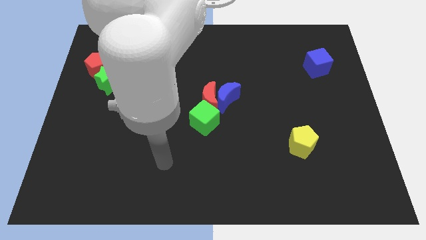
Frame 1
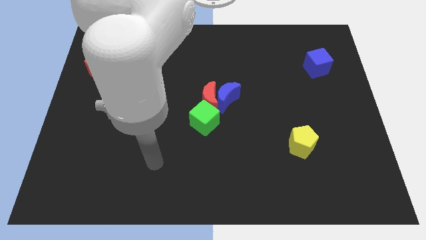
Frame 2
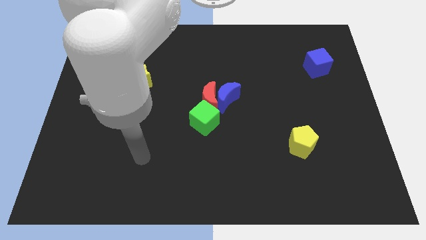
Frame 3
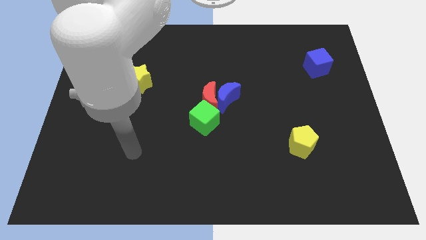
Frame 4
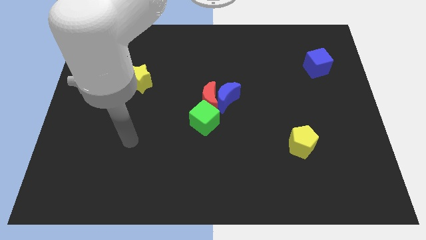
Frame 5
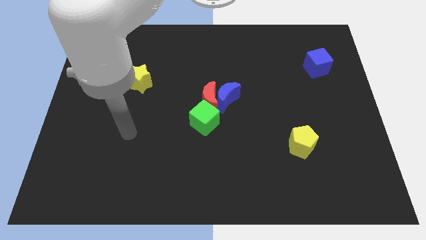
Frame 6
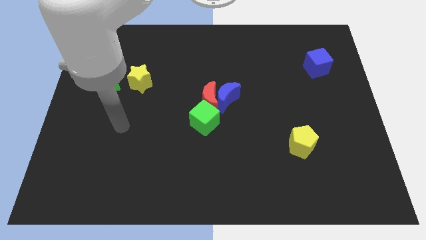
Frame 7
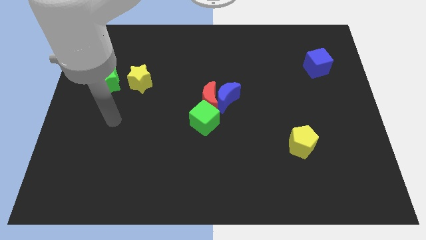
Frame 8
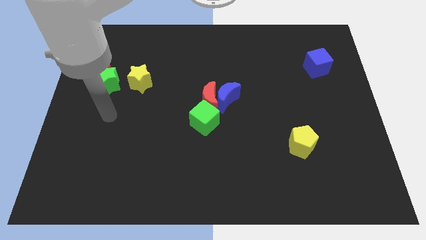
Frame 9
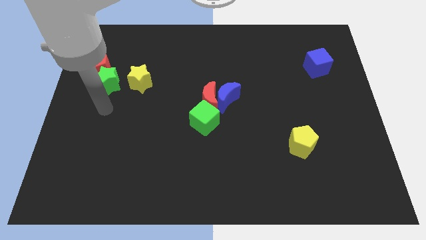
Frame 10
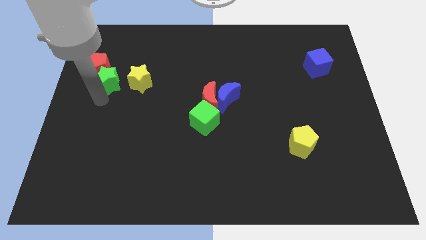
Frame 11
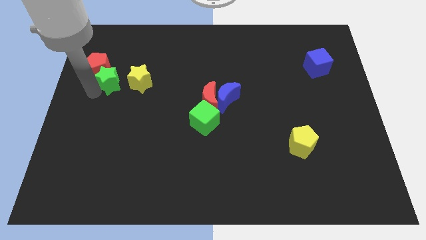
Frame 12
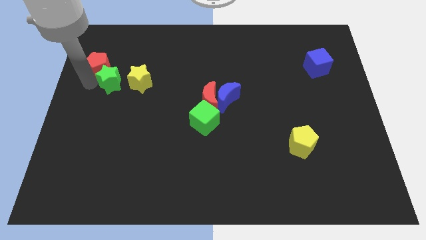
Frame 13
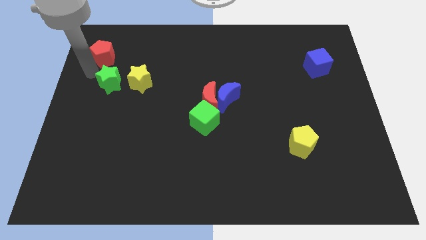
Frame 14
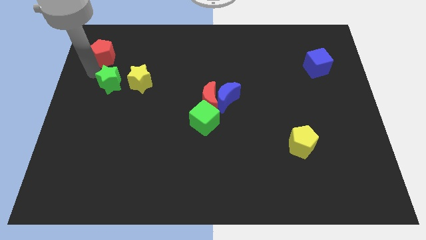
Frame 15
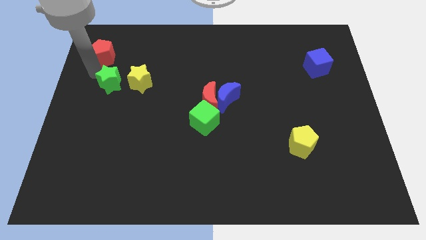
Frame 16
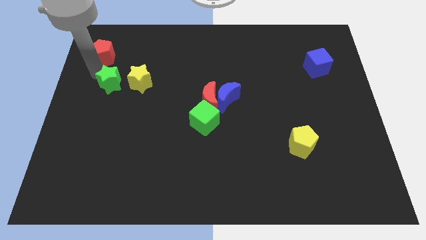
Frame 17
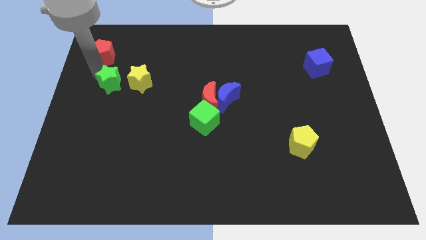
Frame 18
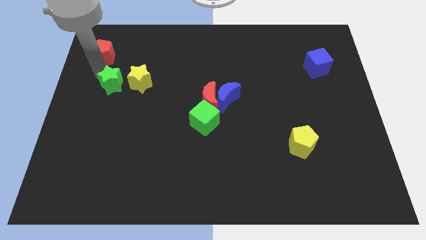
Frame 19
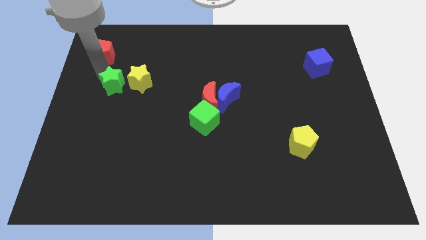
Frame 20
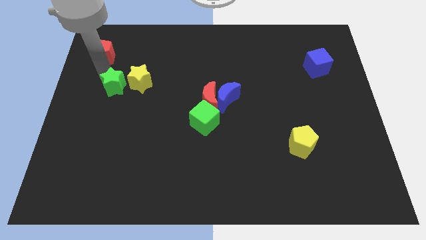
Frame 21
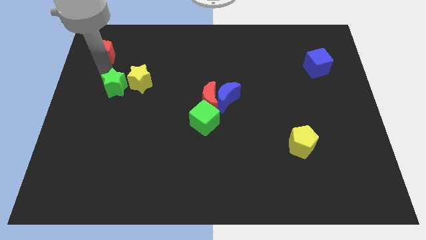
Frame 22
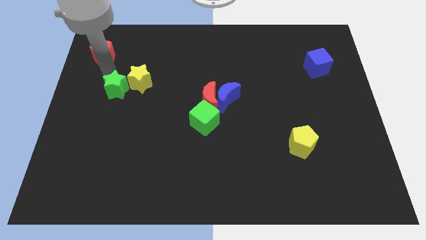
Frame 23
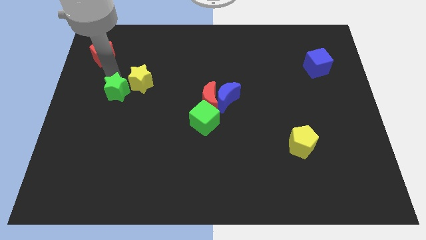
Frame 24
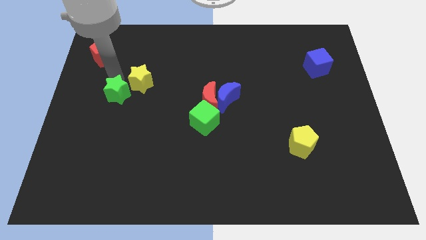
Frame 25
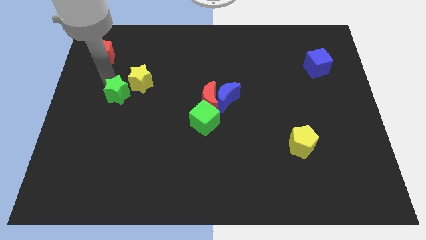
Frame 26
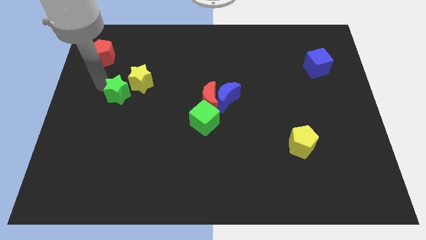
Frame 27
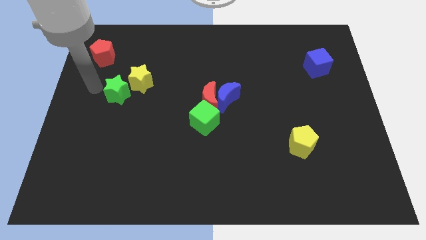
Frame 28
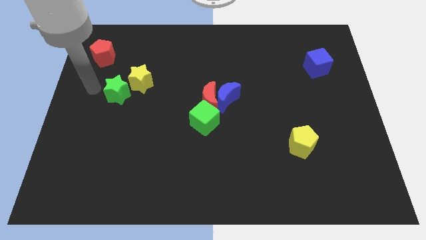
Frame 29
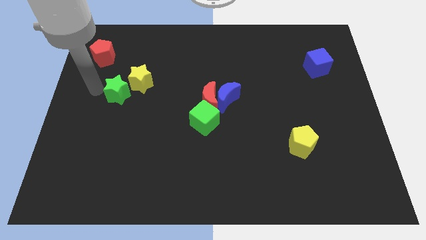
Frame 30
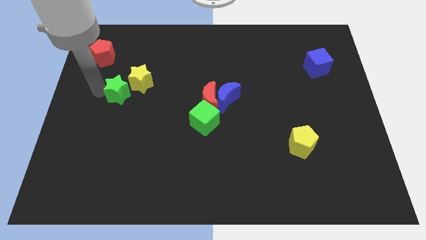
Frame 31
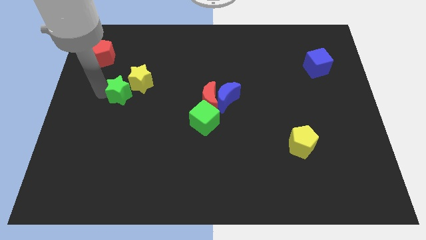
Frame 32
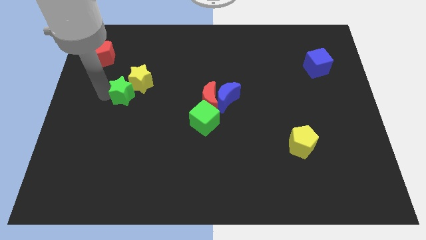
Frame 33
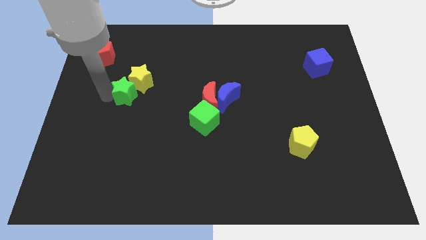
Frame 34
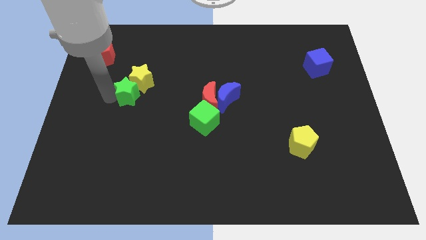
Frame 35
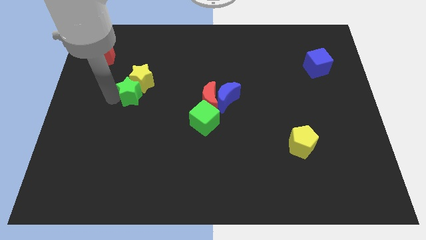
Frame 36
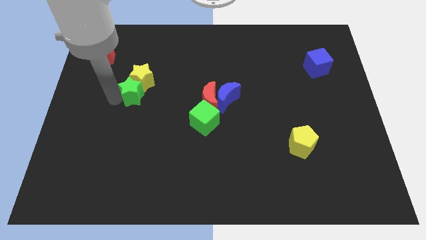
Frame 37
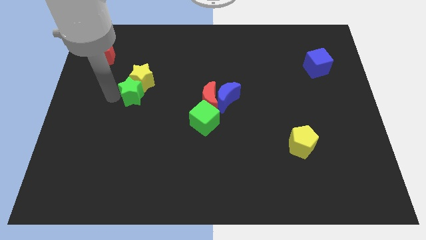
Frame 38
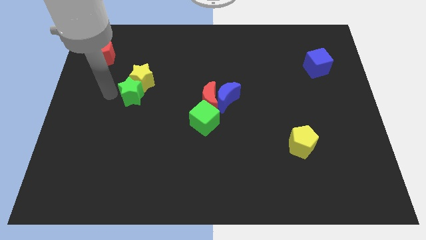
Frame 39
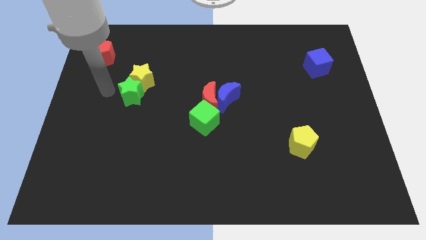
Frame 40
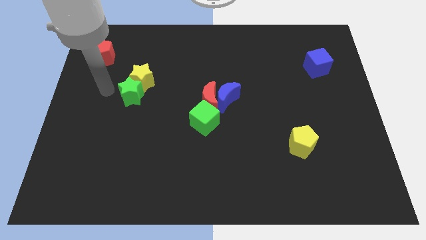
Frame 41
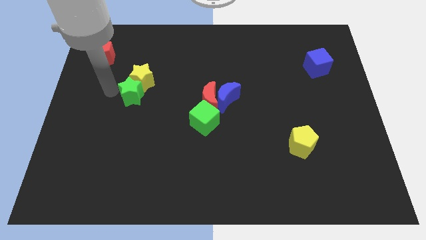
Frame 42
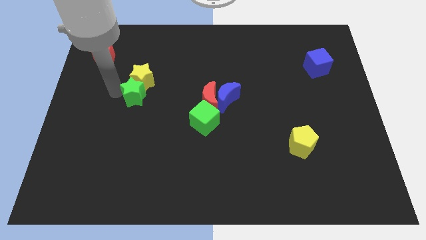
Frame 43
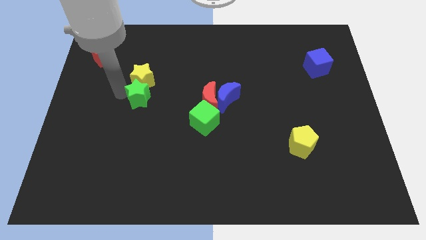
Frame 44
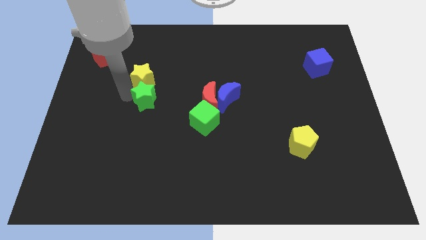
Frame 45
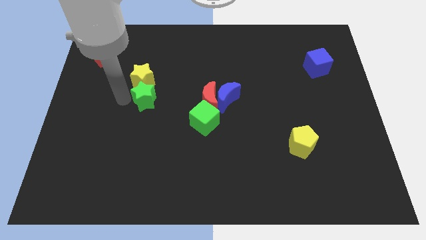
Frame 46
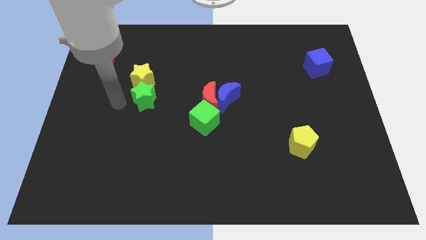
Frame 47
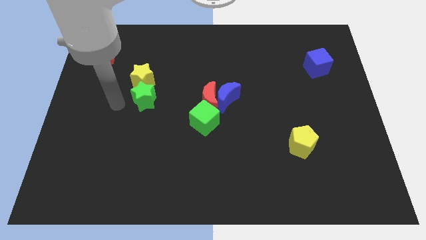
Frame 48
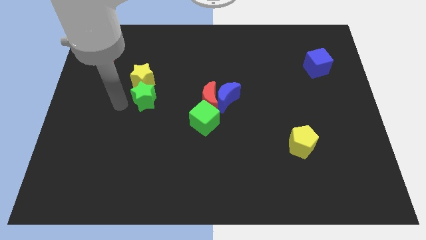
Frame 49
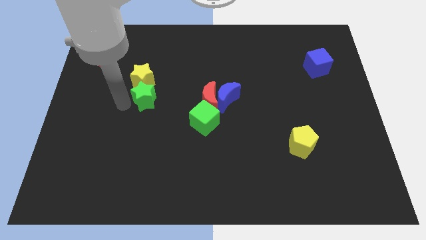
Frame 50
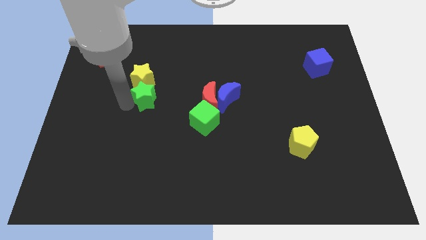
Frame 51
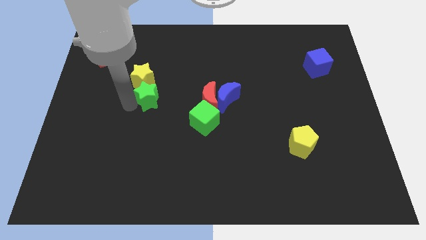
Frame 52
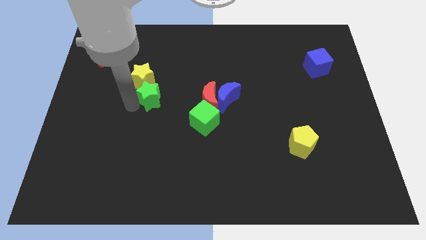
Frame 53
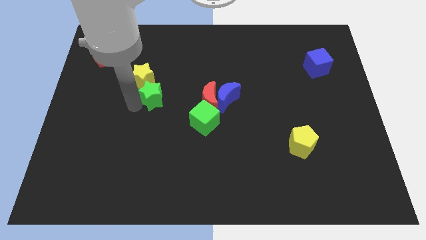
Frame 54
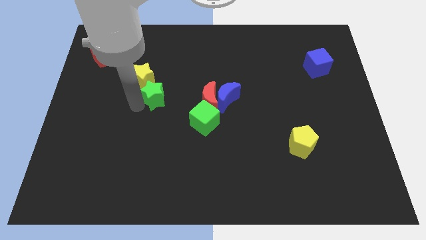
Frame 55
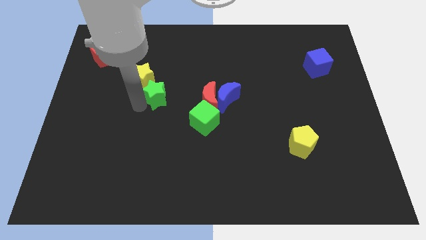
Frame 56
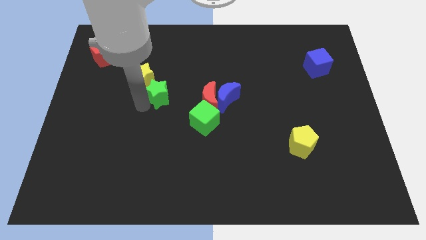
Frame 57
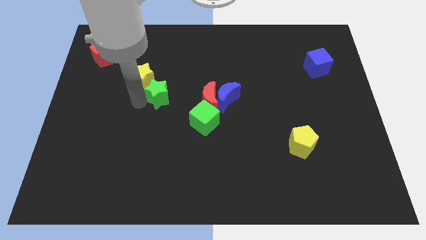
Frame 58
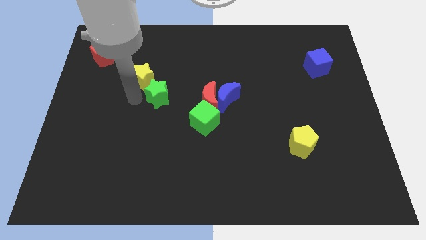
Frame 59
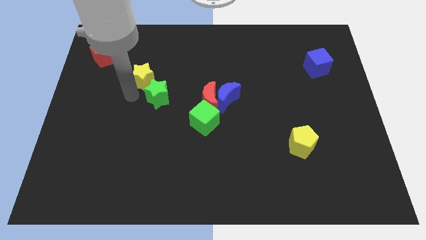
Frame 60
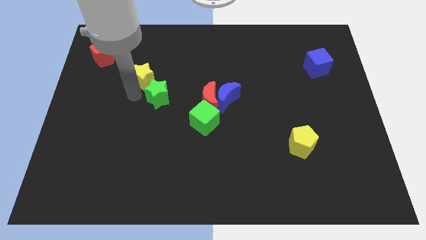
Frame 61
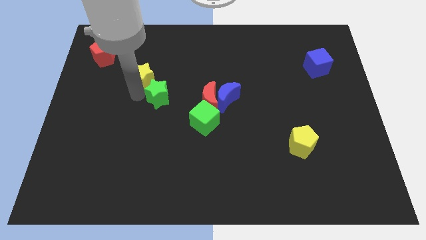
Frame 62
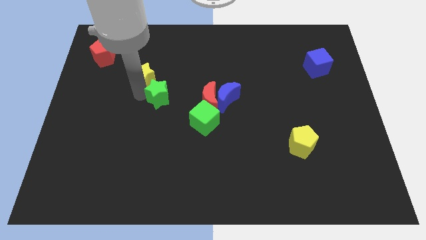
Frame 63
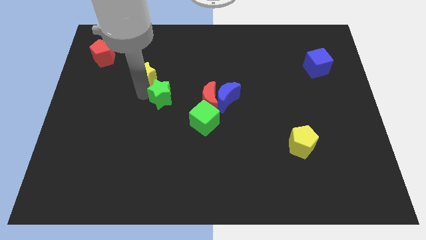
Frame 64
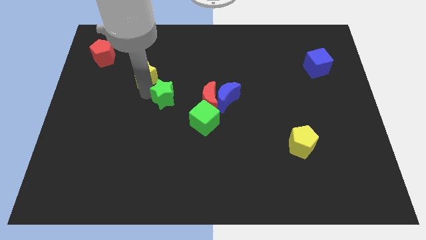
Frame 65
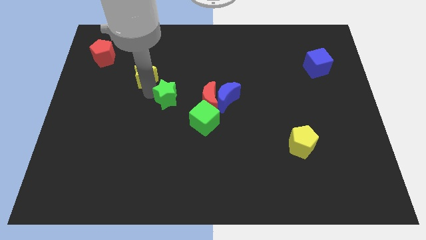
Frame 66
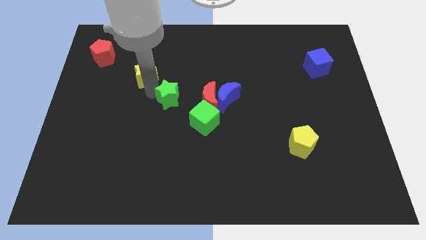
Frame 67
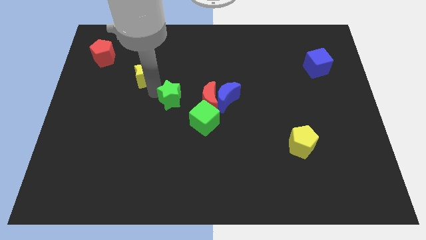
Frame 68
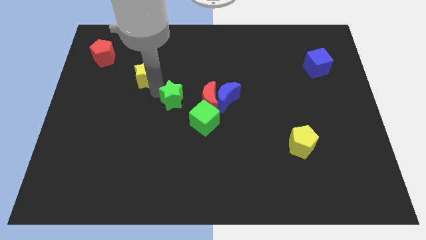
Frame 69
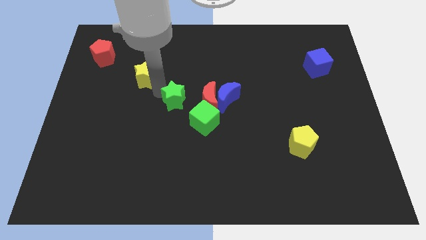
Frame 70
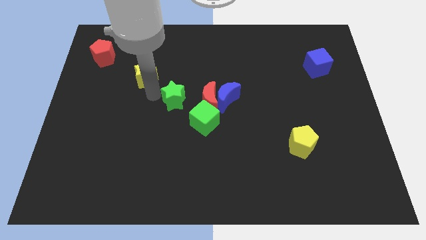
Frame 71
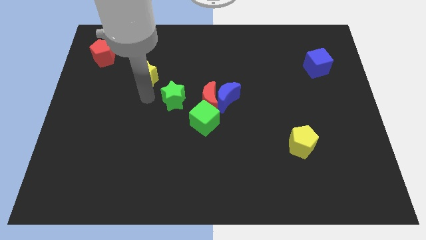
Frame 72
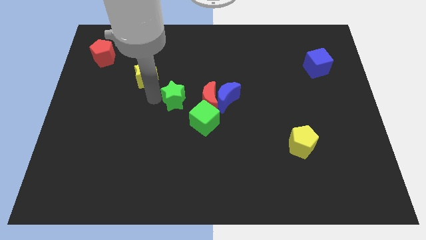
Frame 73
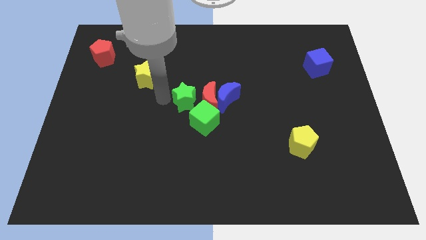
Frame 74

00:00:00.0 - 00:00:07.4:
put the green star next to the red moon
